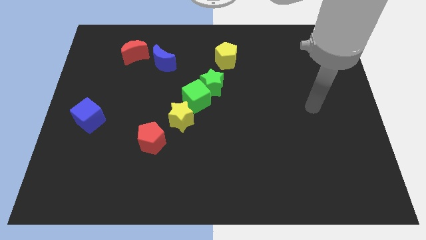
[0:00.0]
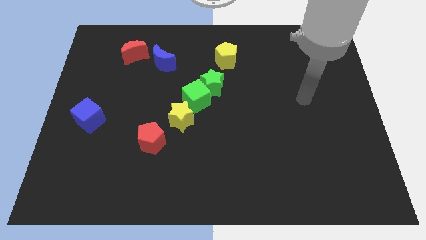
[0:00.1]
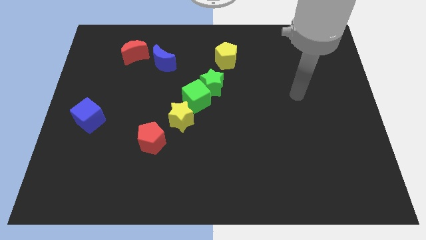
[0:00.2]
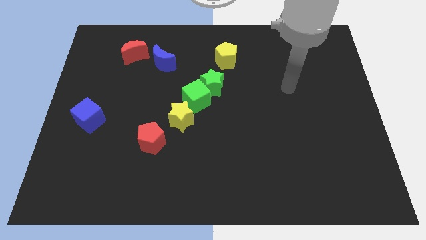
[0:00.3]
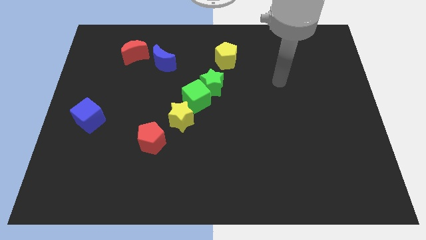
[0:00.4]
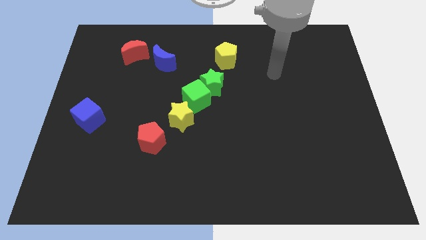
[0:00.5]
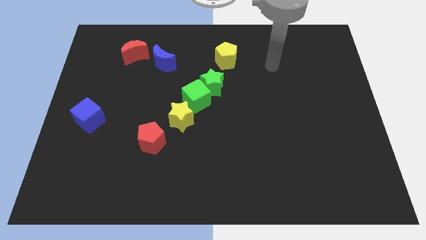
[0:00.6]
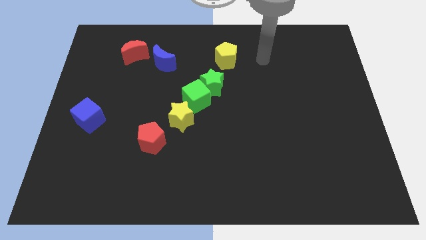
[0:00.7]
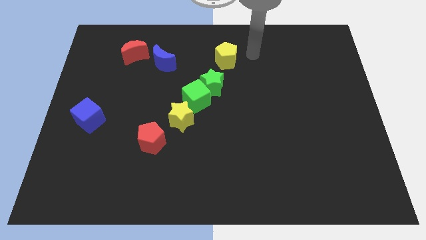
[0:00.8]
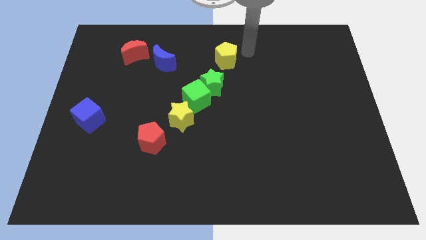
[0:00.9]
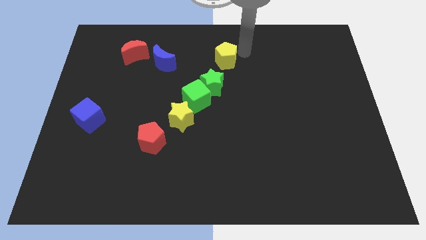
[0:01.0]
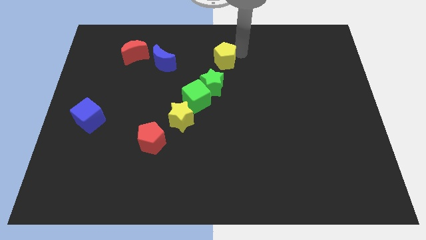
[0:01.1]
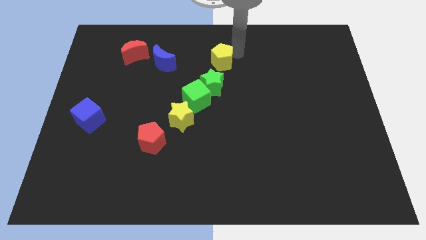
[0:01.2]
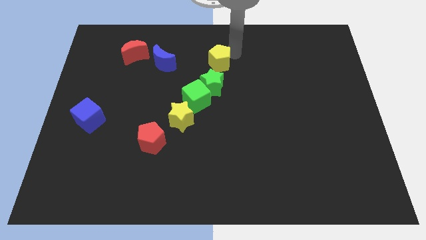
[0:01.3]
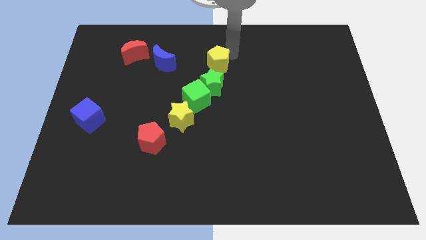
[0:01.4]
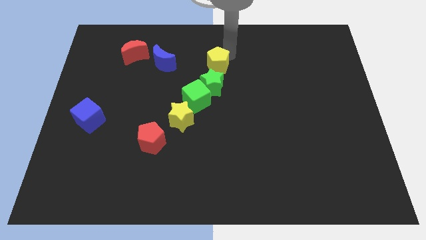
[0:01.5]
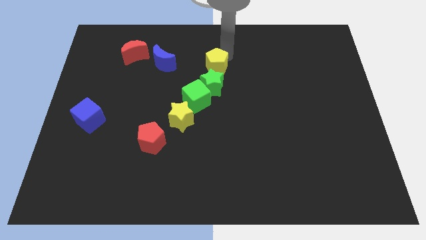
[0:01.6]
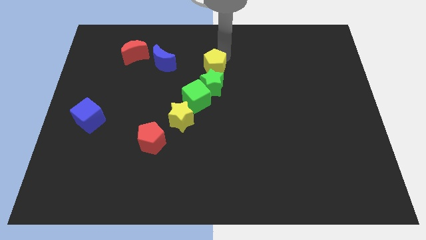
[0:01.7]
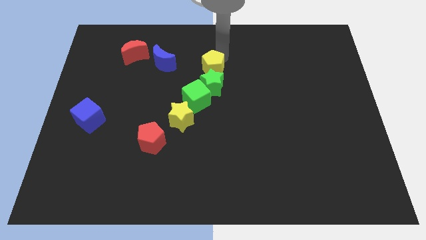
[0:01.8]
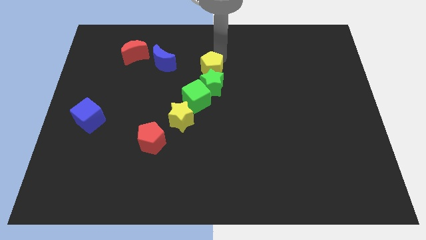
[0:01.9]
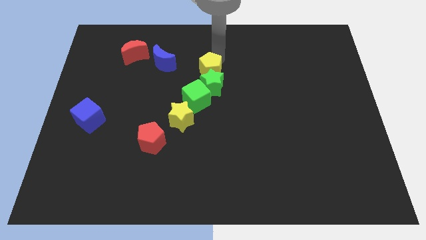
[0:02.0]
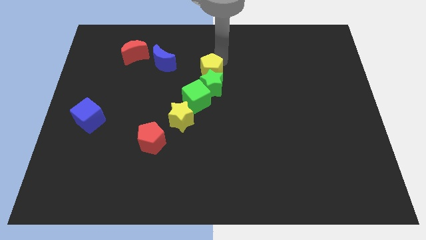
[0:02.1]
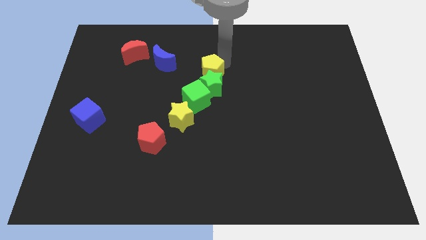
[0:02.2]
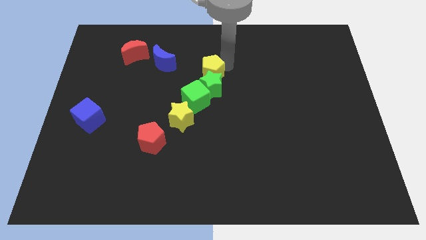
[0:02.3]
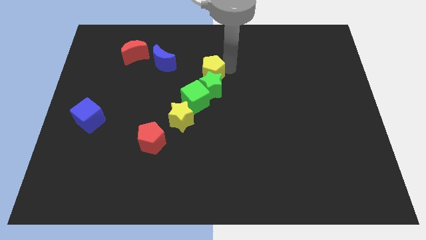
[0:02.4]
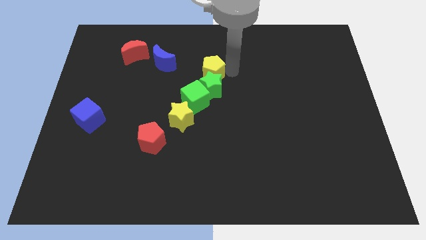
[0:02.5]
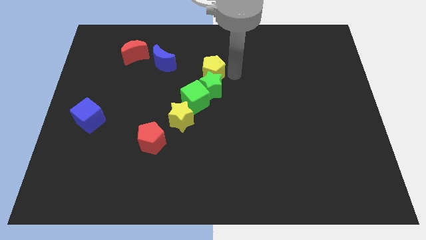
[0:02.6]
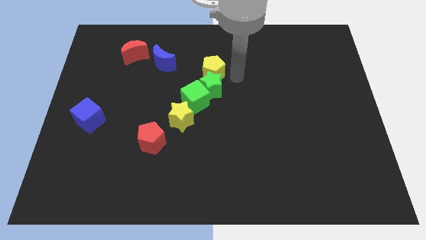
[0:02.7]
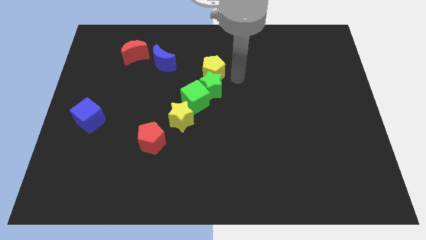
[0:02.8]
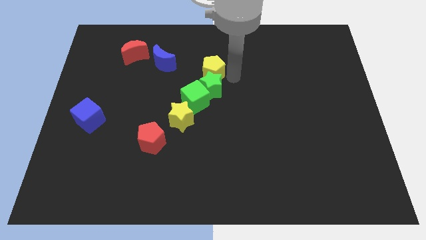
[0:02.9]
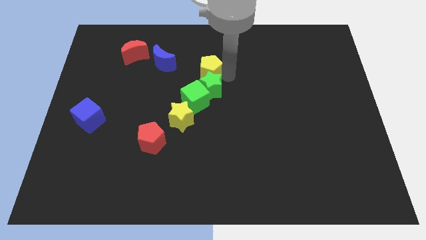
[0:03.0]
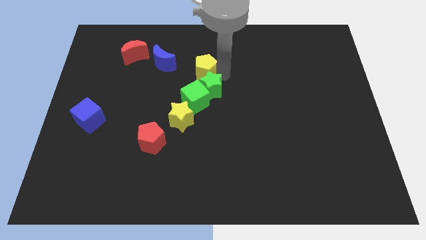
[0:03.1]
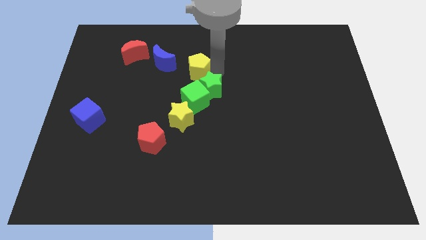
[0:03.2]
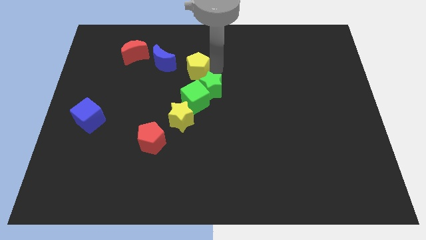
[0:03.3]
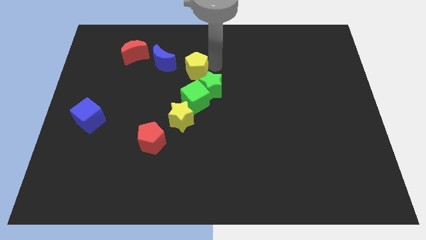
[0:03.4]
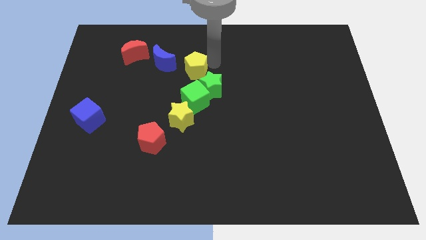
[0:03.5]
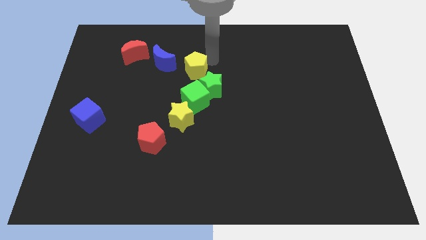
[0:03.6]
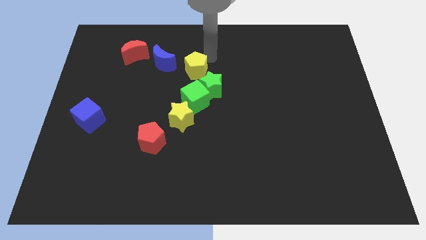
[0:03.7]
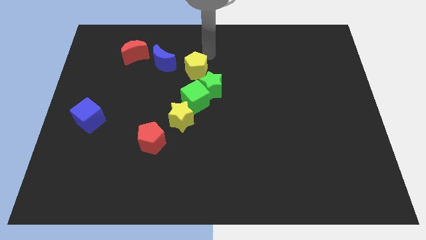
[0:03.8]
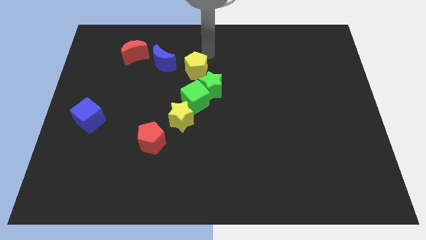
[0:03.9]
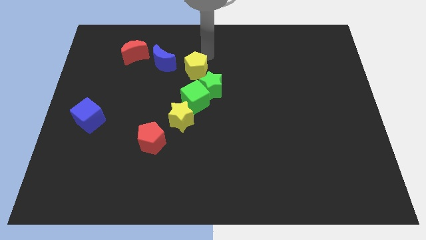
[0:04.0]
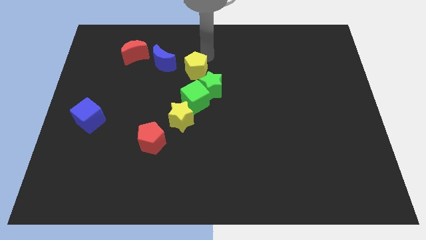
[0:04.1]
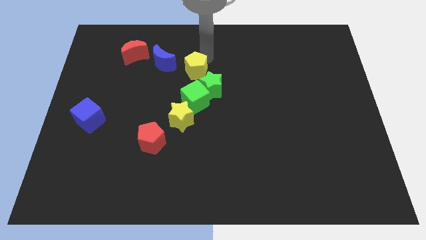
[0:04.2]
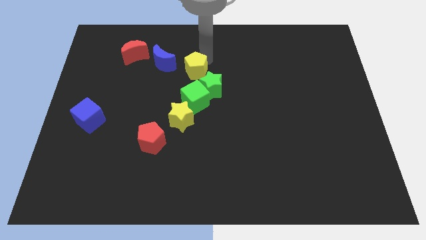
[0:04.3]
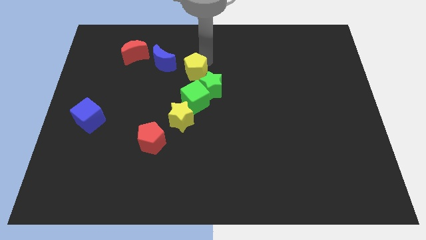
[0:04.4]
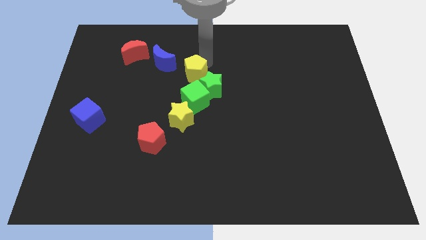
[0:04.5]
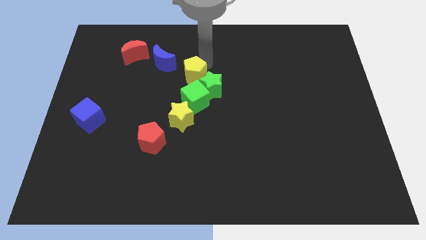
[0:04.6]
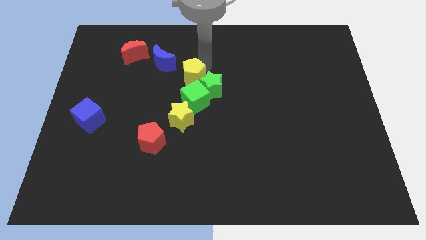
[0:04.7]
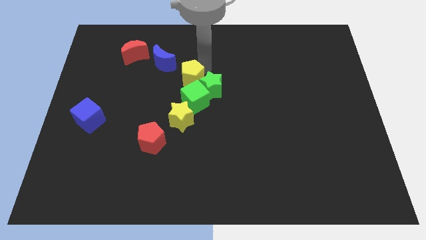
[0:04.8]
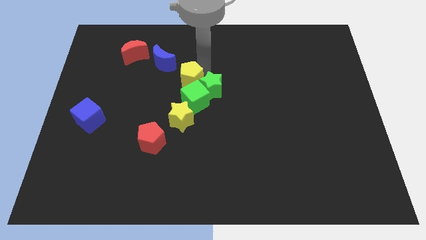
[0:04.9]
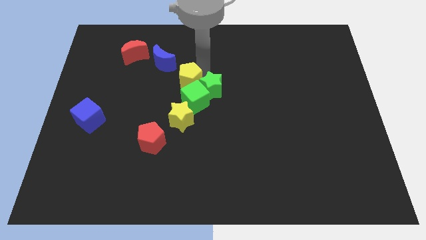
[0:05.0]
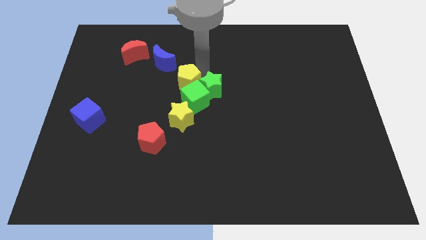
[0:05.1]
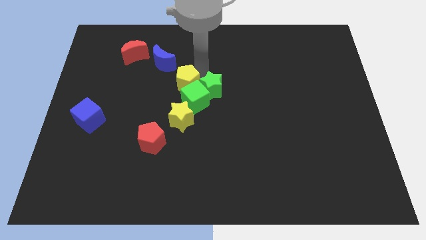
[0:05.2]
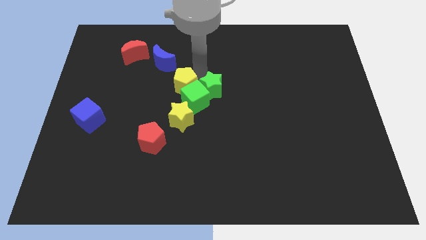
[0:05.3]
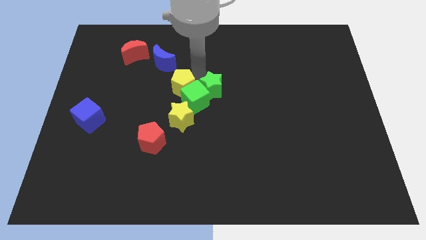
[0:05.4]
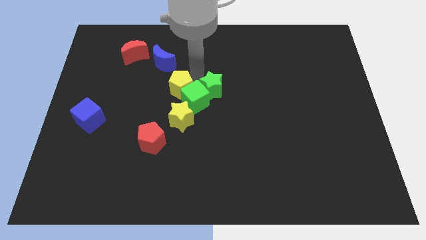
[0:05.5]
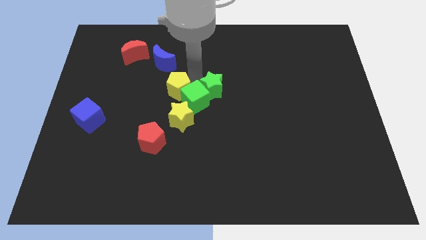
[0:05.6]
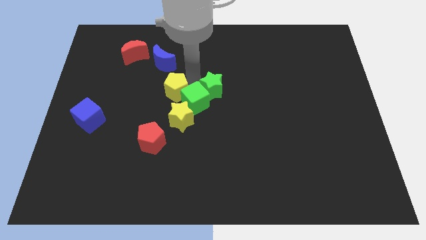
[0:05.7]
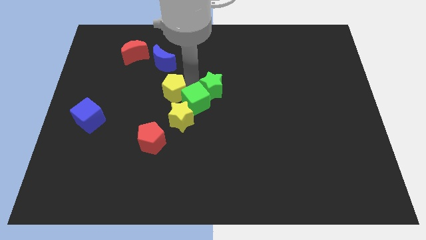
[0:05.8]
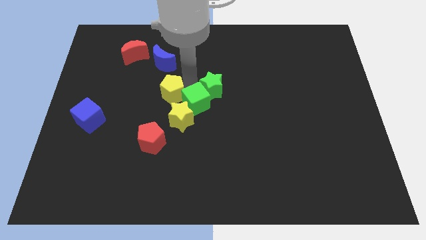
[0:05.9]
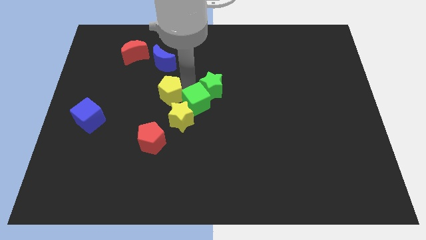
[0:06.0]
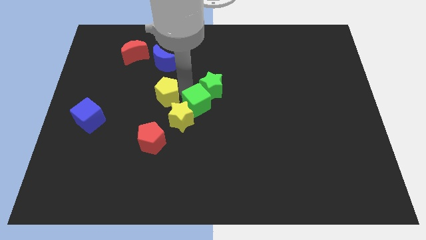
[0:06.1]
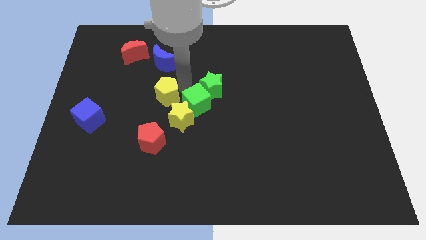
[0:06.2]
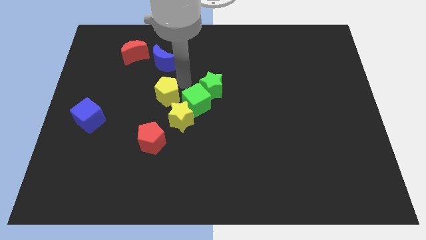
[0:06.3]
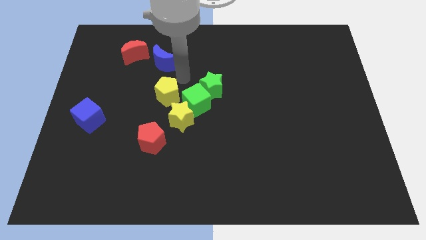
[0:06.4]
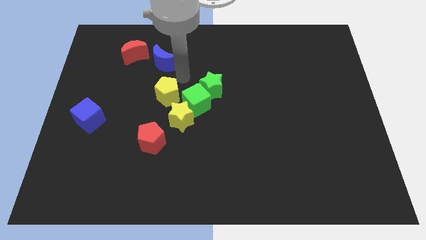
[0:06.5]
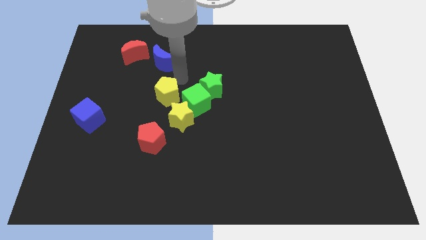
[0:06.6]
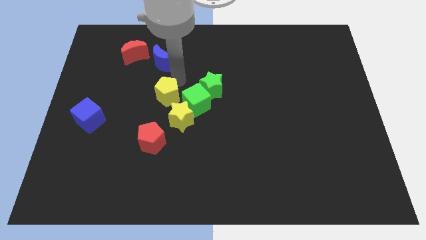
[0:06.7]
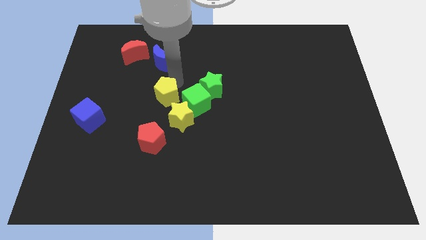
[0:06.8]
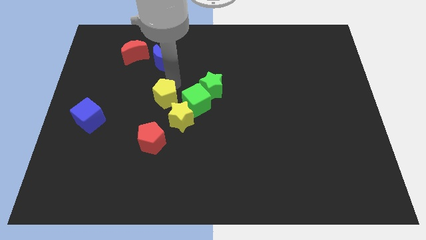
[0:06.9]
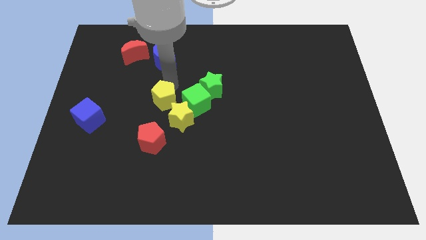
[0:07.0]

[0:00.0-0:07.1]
move the yellow pentagon diagonally downwards and to the left

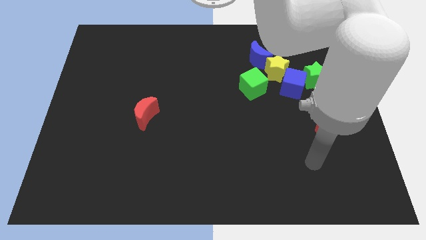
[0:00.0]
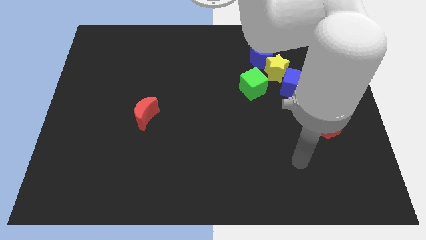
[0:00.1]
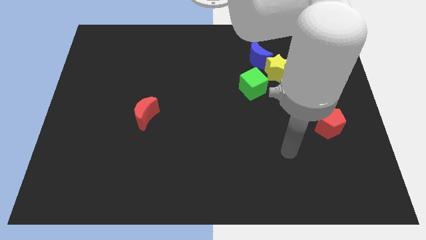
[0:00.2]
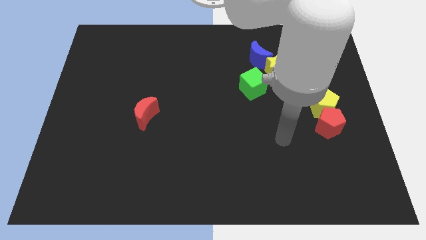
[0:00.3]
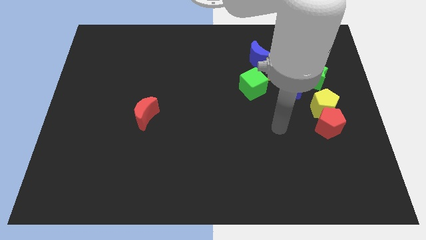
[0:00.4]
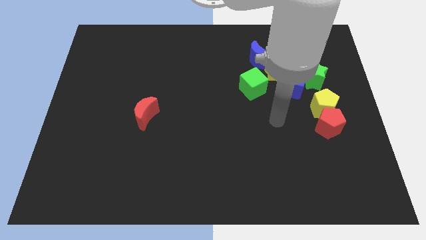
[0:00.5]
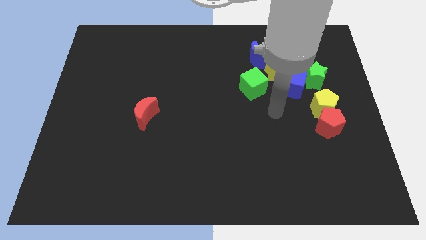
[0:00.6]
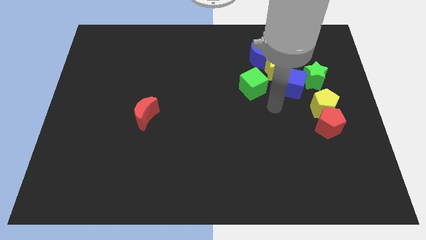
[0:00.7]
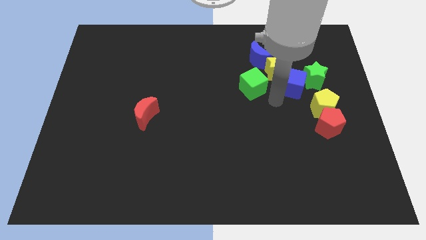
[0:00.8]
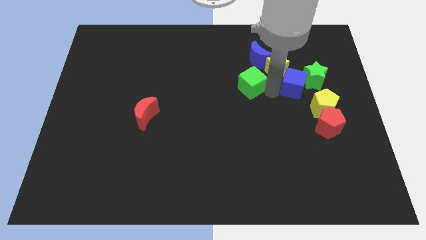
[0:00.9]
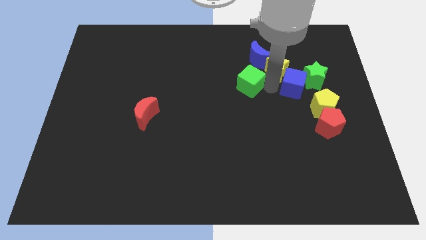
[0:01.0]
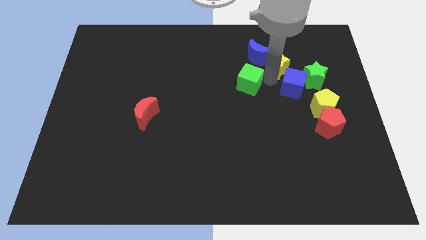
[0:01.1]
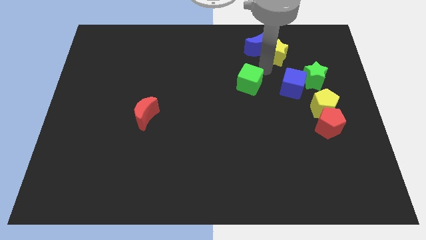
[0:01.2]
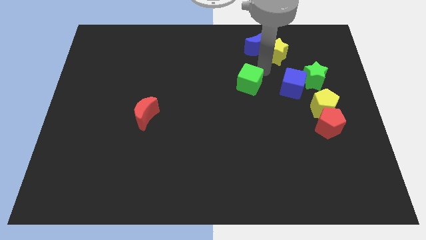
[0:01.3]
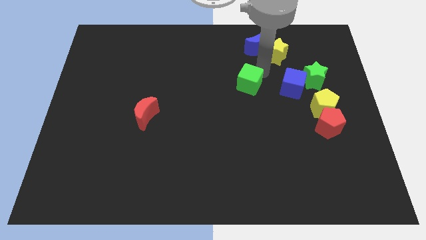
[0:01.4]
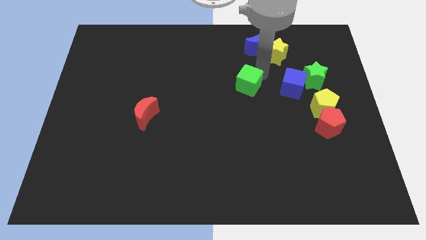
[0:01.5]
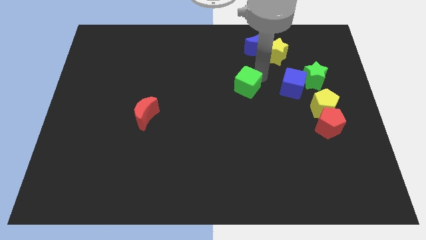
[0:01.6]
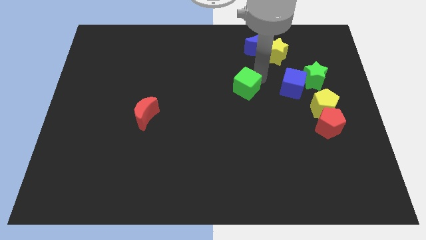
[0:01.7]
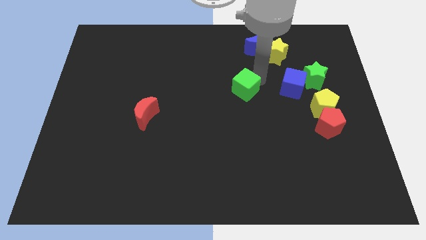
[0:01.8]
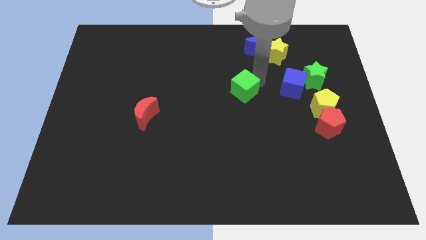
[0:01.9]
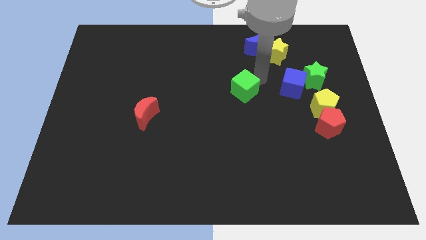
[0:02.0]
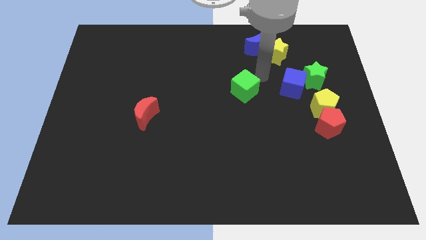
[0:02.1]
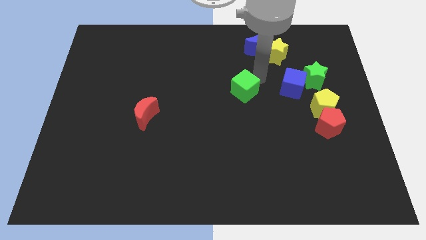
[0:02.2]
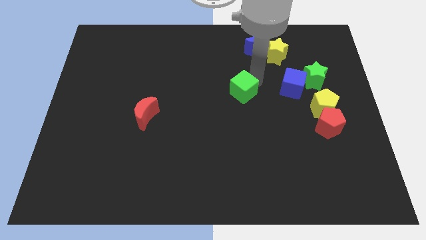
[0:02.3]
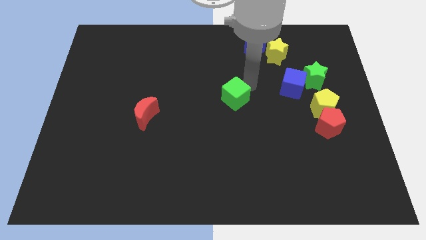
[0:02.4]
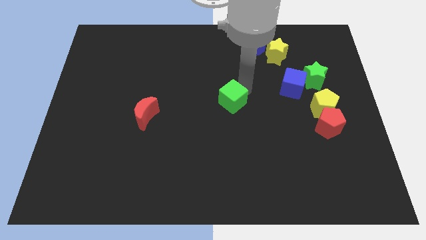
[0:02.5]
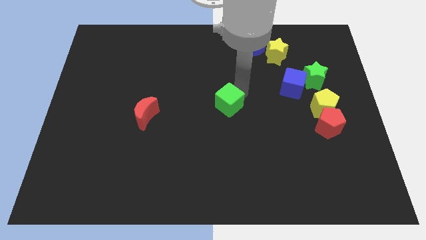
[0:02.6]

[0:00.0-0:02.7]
slightly push the green cube downwards and to the left
